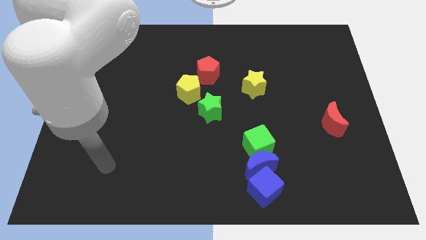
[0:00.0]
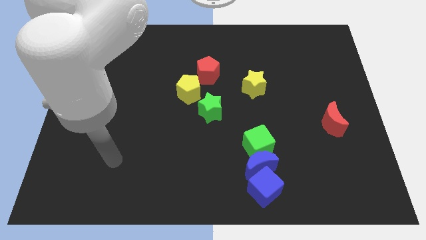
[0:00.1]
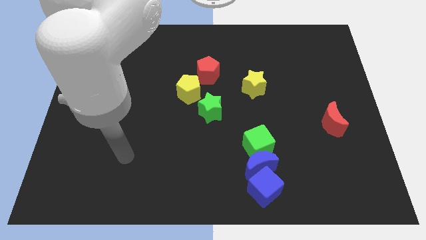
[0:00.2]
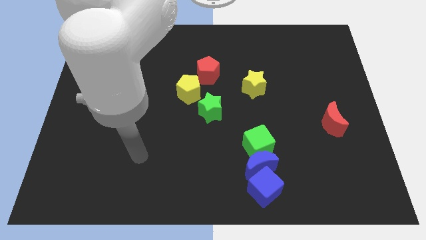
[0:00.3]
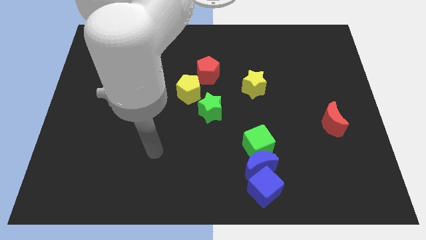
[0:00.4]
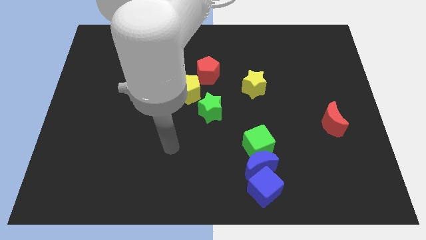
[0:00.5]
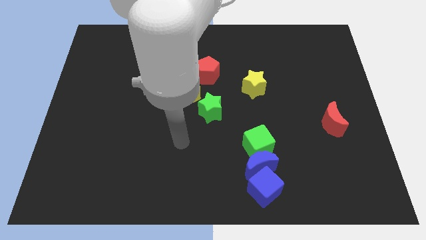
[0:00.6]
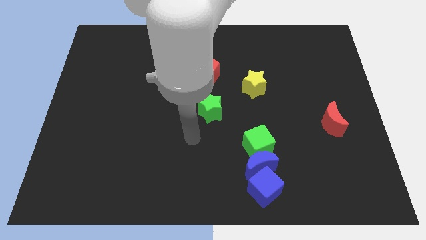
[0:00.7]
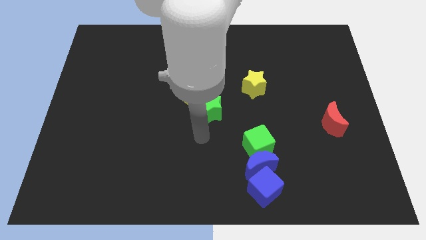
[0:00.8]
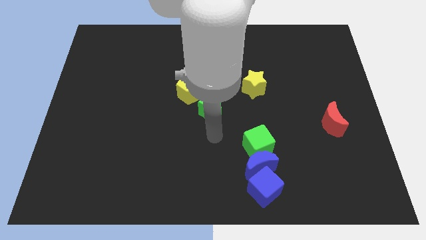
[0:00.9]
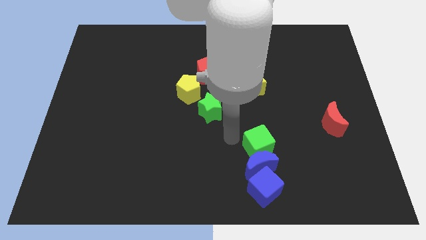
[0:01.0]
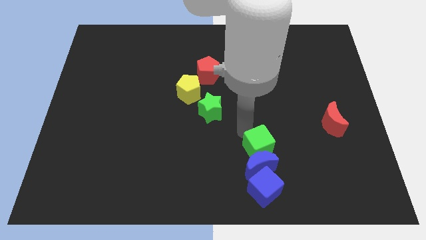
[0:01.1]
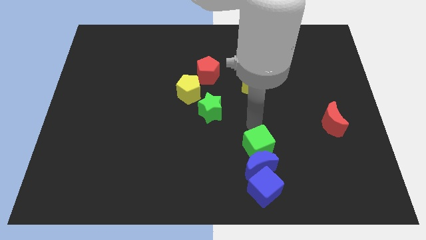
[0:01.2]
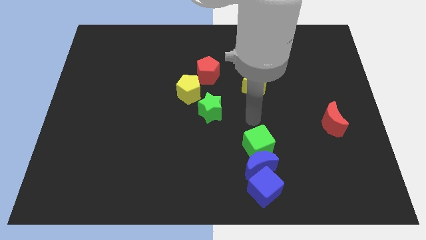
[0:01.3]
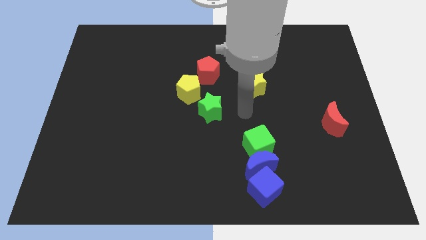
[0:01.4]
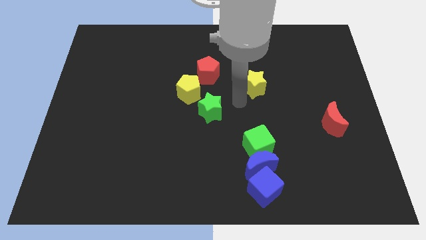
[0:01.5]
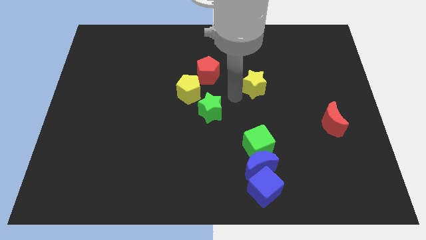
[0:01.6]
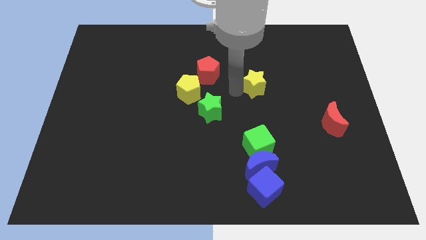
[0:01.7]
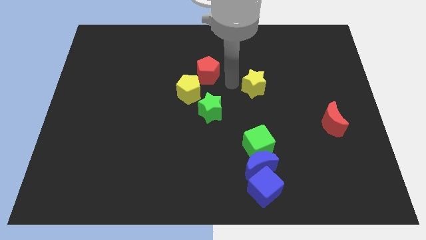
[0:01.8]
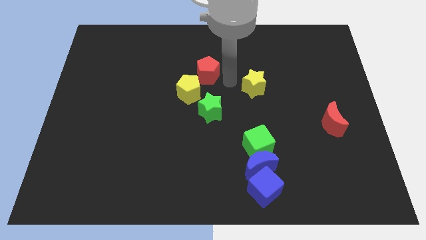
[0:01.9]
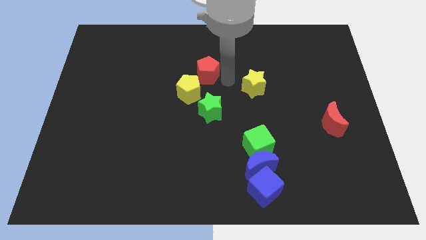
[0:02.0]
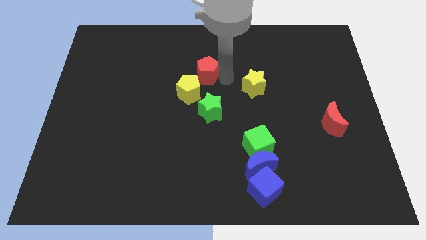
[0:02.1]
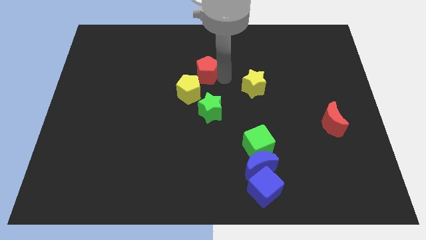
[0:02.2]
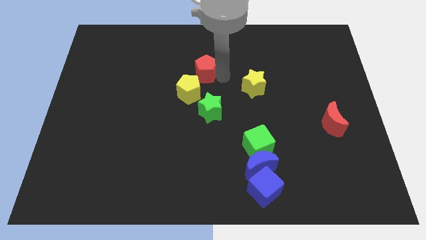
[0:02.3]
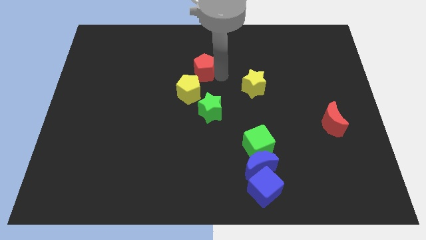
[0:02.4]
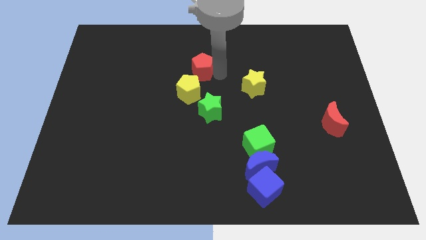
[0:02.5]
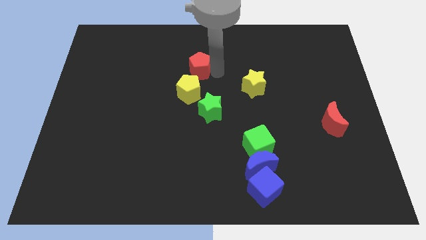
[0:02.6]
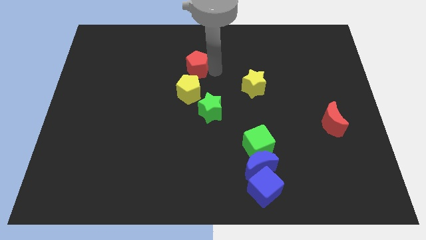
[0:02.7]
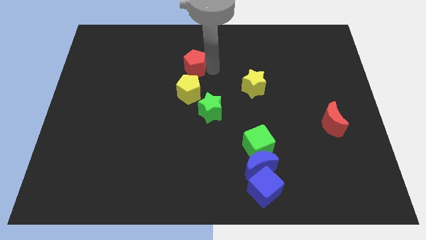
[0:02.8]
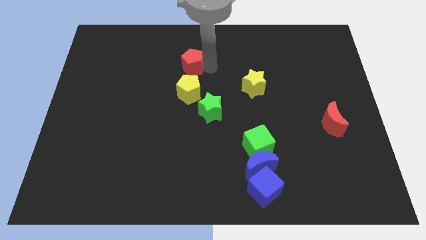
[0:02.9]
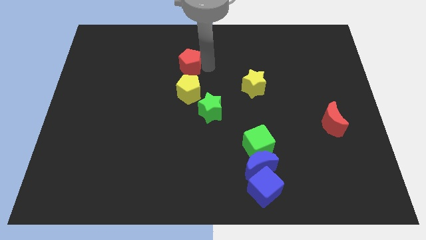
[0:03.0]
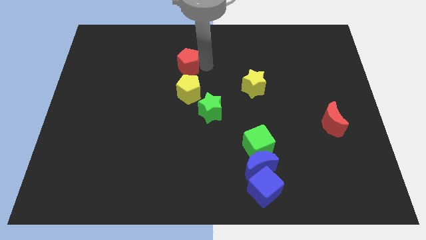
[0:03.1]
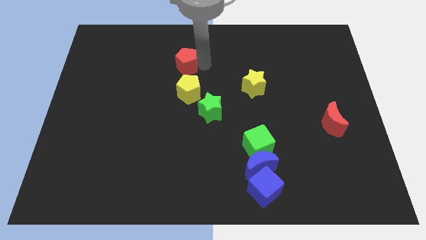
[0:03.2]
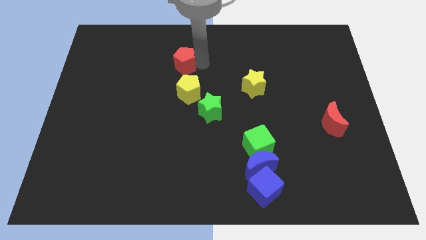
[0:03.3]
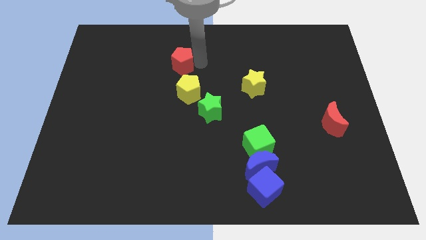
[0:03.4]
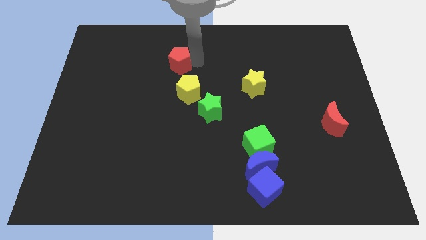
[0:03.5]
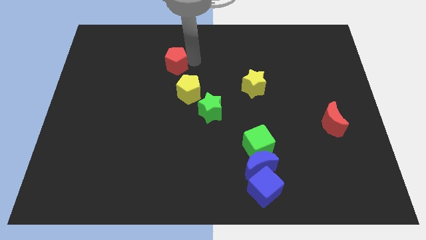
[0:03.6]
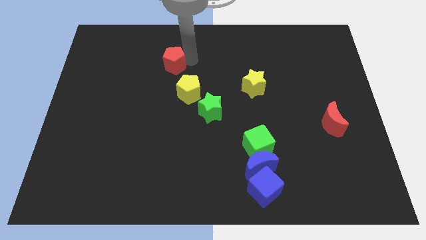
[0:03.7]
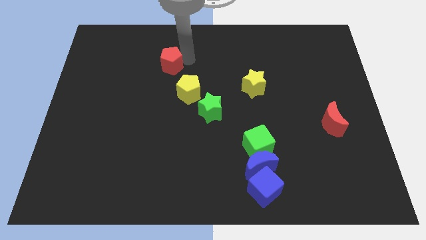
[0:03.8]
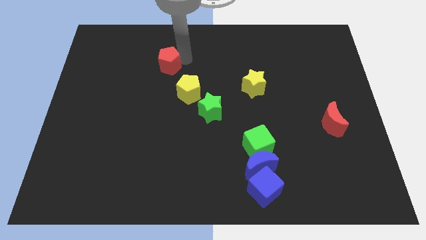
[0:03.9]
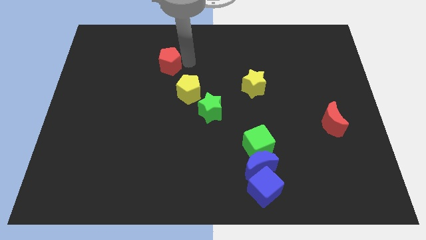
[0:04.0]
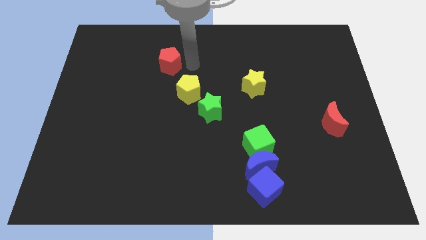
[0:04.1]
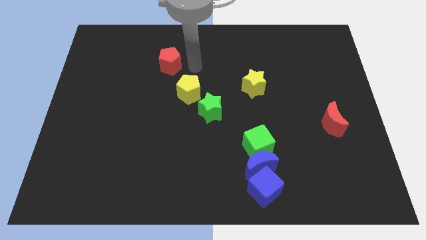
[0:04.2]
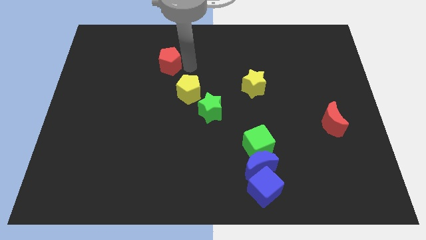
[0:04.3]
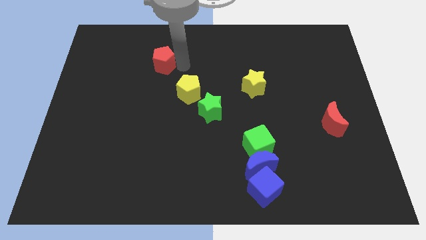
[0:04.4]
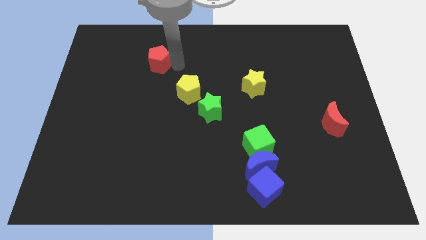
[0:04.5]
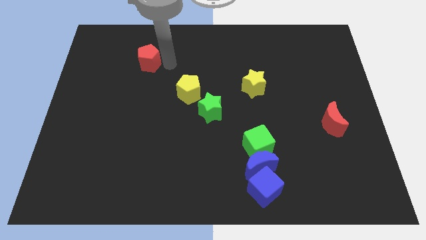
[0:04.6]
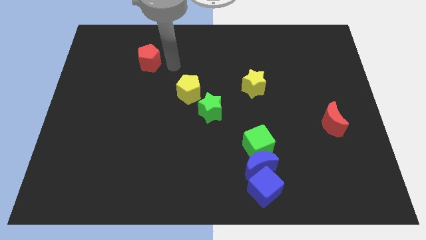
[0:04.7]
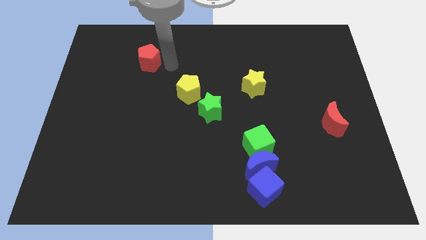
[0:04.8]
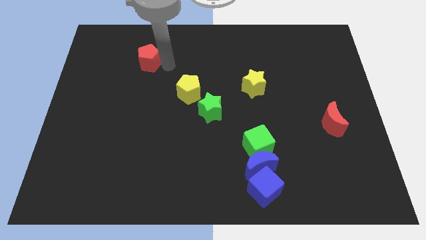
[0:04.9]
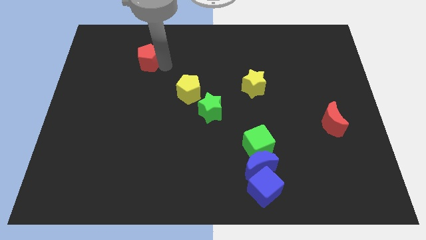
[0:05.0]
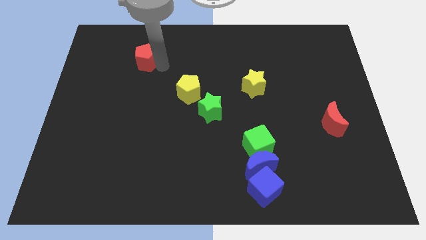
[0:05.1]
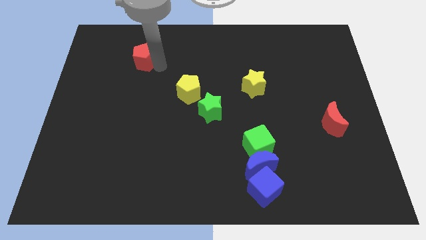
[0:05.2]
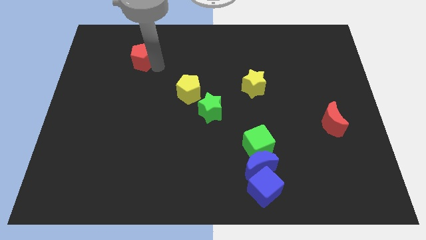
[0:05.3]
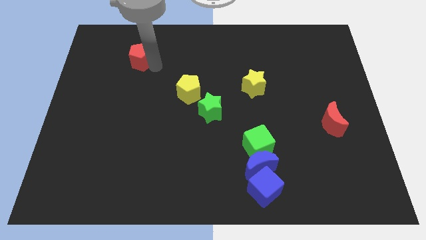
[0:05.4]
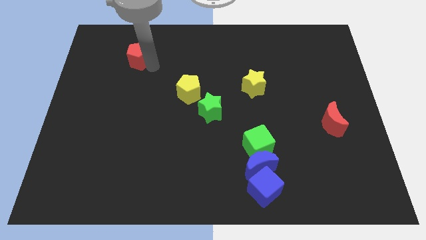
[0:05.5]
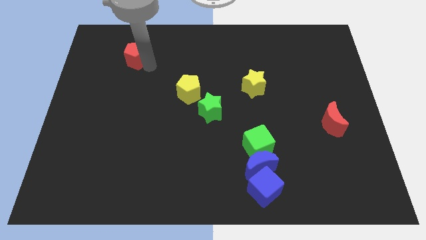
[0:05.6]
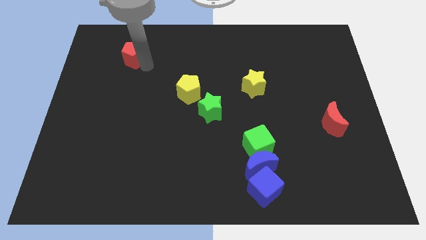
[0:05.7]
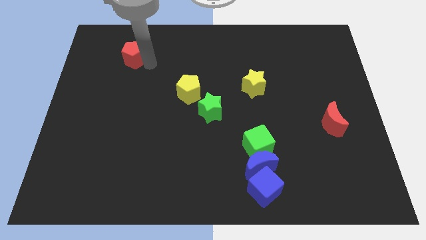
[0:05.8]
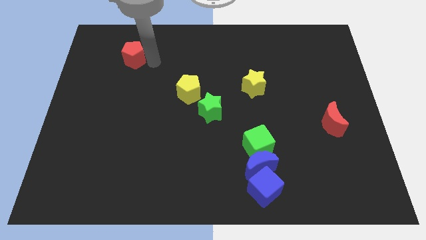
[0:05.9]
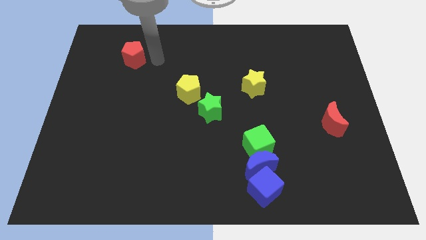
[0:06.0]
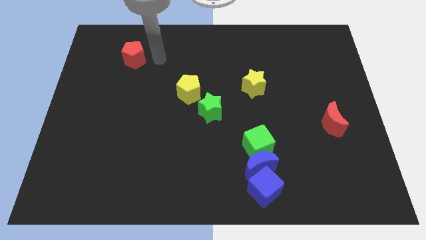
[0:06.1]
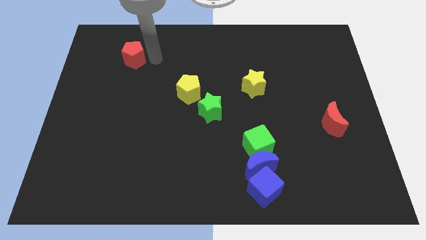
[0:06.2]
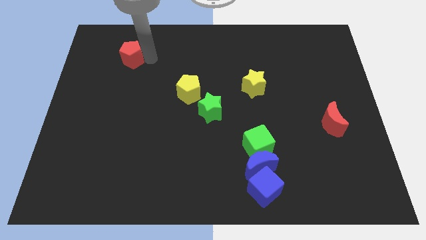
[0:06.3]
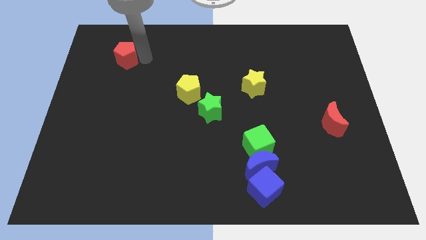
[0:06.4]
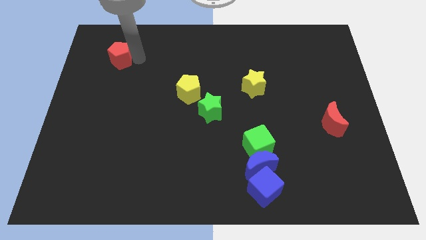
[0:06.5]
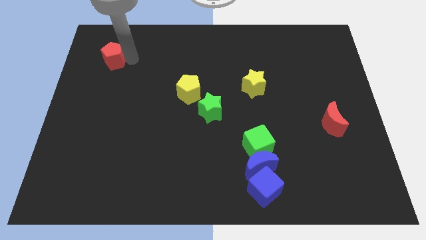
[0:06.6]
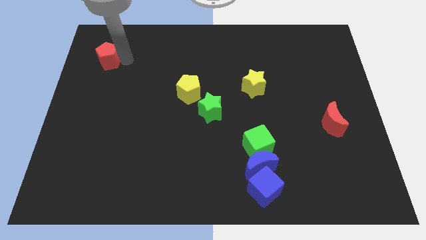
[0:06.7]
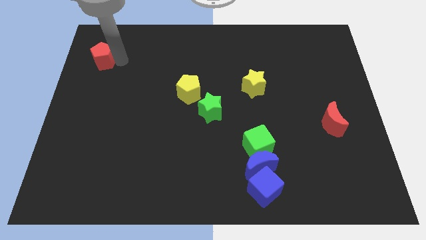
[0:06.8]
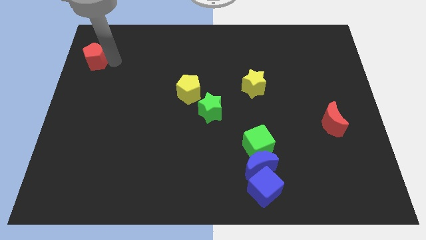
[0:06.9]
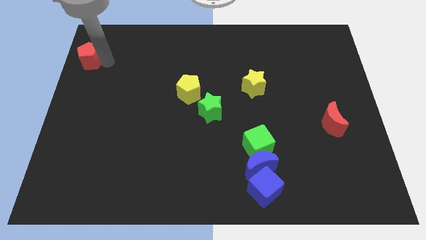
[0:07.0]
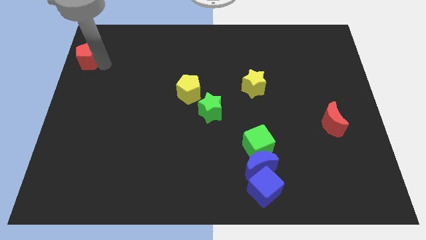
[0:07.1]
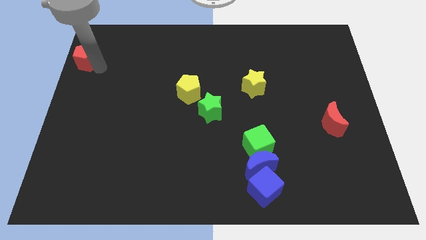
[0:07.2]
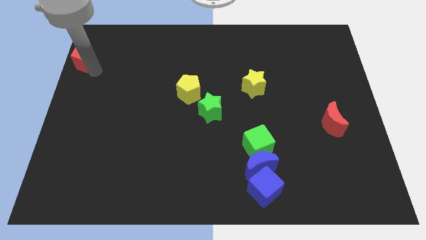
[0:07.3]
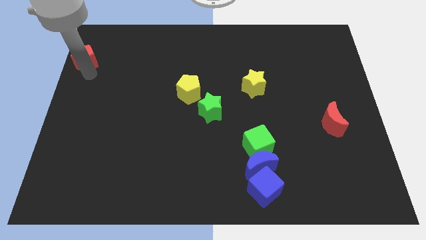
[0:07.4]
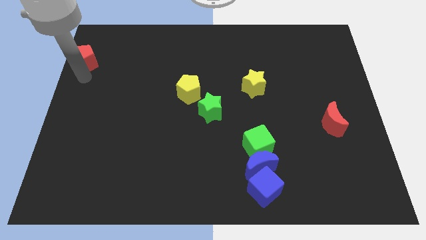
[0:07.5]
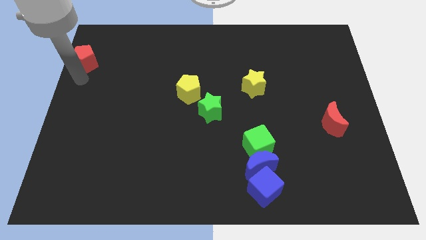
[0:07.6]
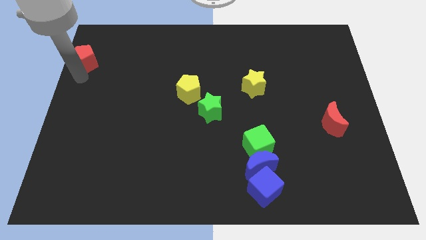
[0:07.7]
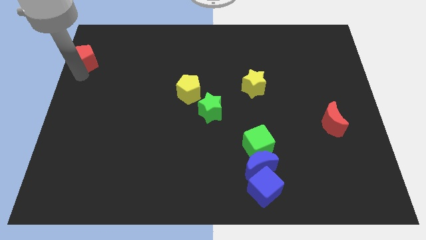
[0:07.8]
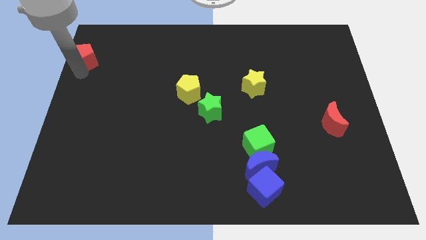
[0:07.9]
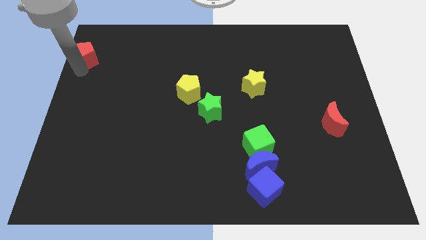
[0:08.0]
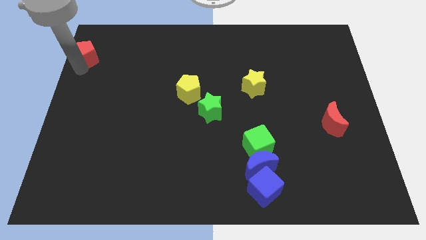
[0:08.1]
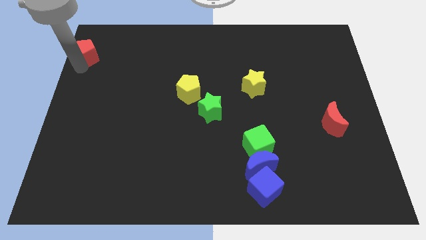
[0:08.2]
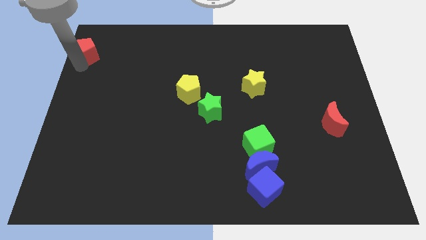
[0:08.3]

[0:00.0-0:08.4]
move the red pentagon to the top left corner
